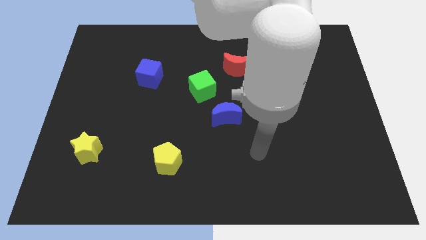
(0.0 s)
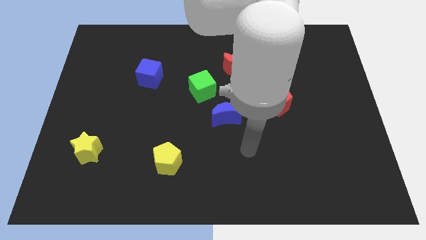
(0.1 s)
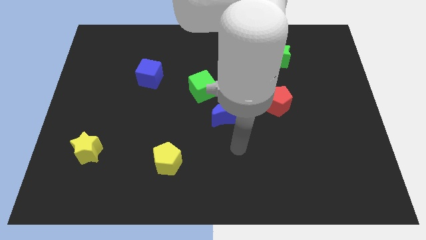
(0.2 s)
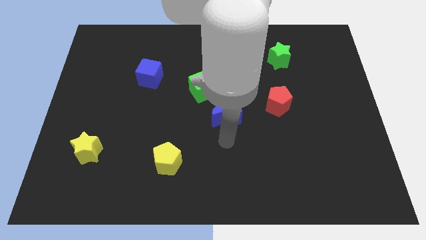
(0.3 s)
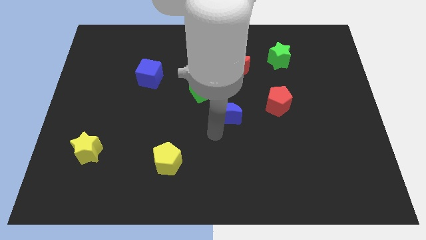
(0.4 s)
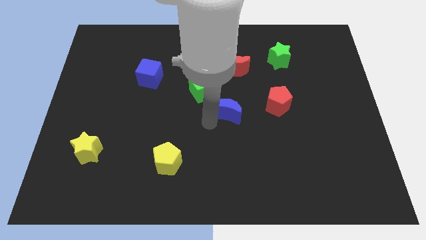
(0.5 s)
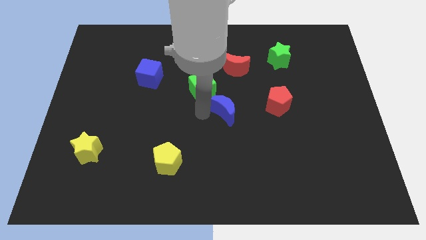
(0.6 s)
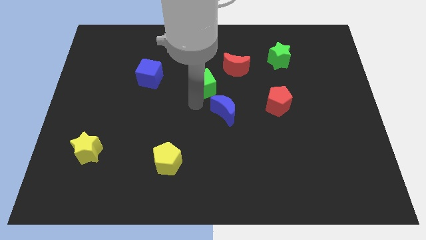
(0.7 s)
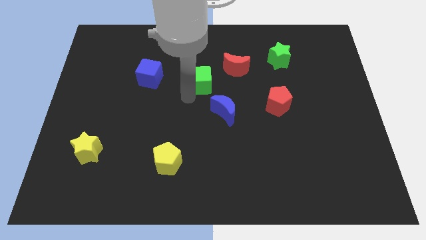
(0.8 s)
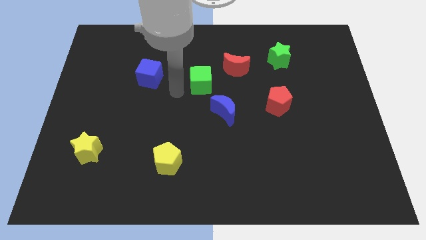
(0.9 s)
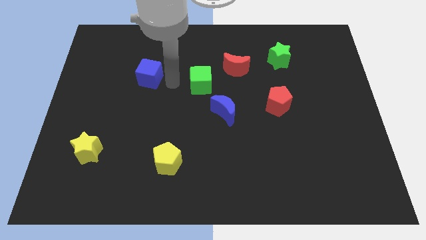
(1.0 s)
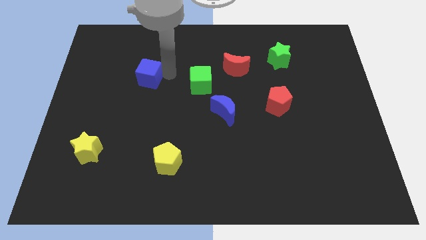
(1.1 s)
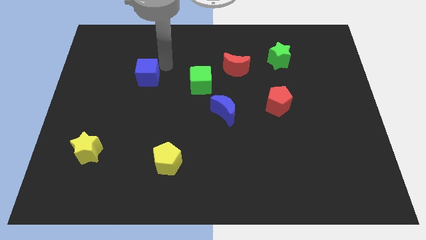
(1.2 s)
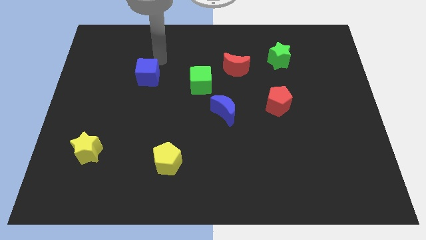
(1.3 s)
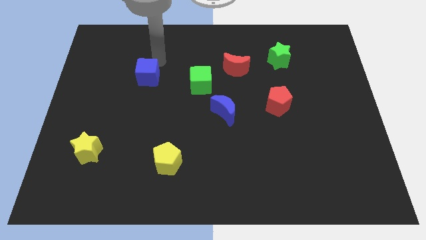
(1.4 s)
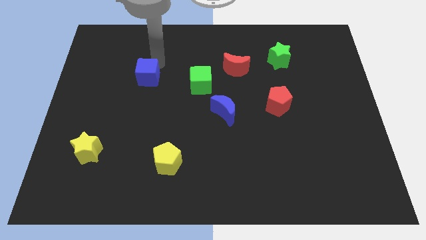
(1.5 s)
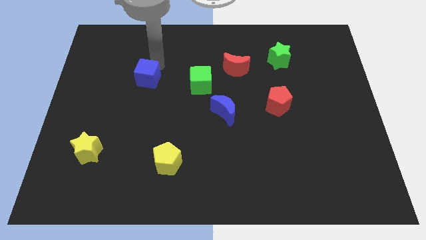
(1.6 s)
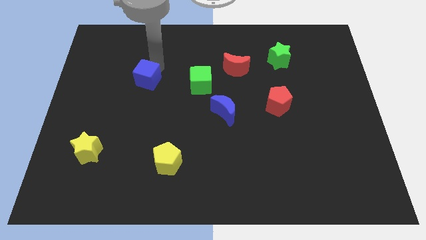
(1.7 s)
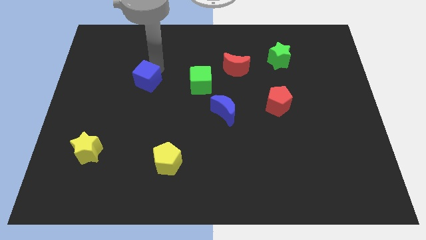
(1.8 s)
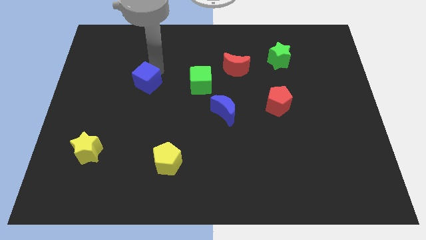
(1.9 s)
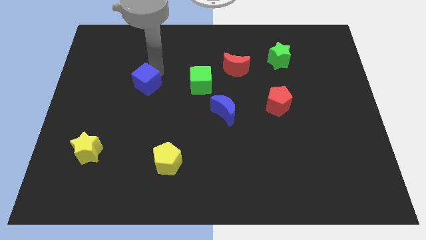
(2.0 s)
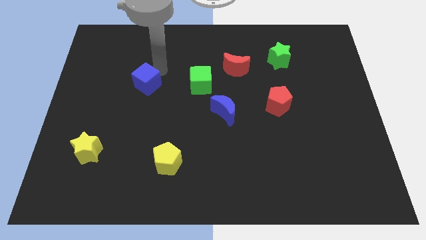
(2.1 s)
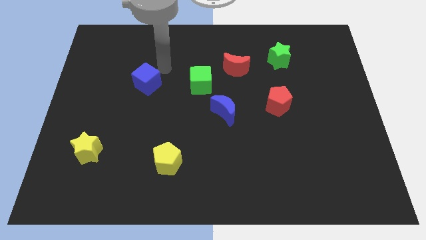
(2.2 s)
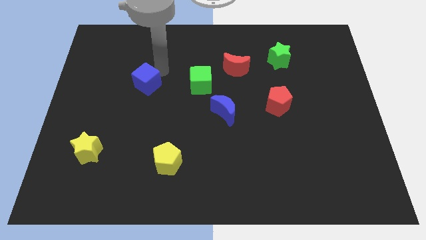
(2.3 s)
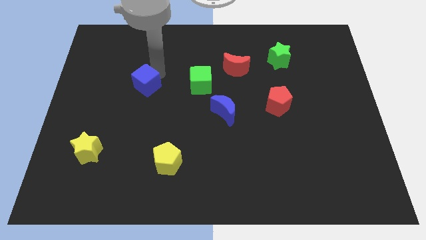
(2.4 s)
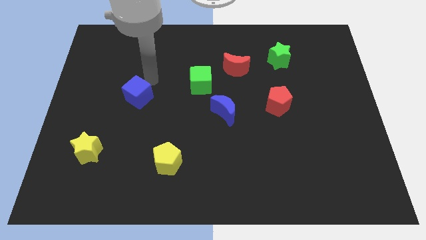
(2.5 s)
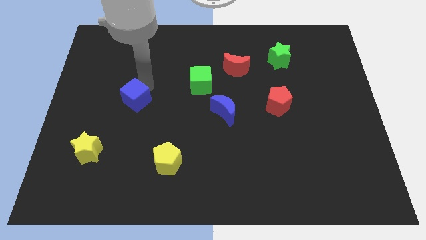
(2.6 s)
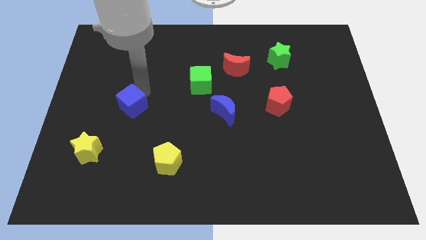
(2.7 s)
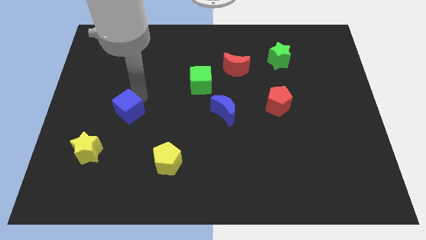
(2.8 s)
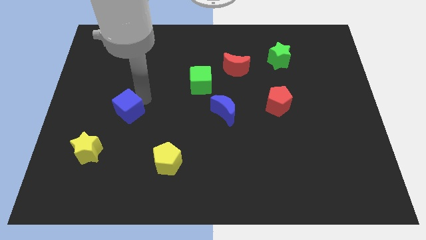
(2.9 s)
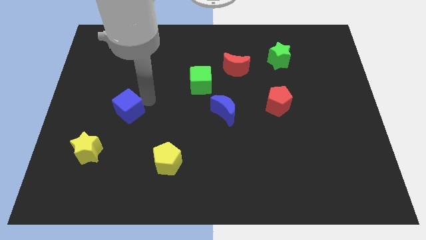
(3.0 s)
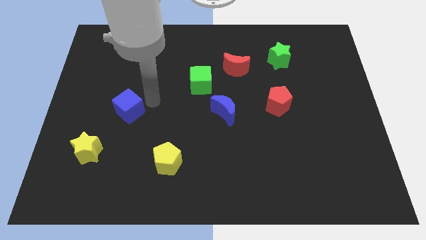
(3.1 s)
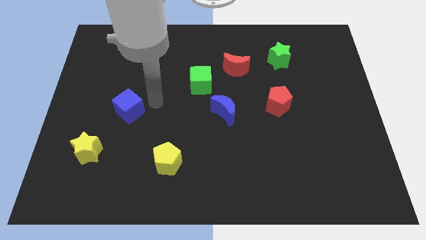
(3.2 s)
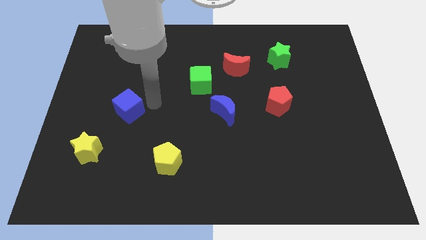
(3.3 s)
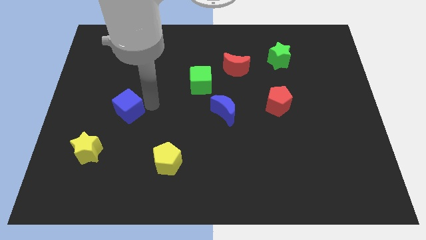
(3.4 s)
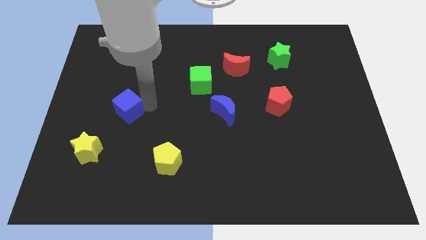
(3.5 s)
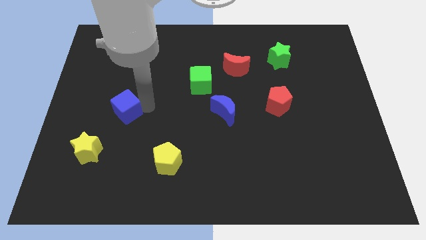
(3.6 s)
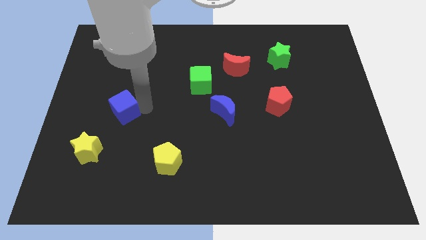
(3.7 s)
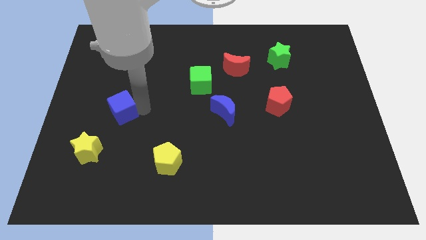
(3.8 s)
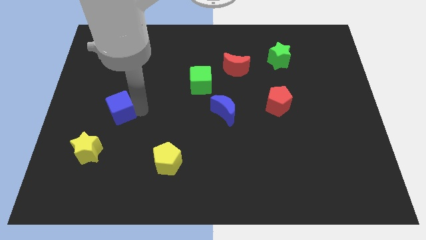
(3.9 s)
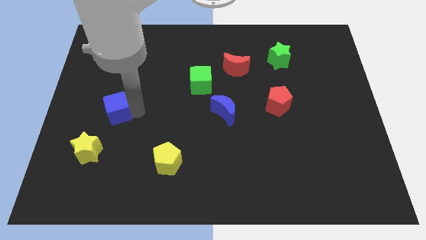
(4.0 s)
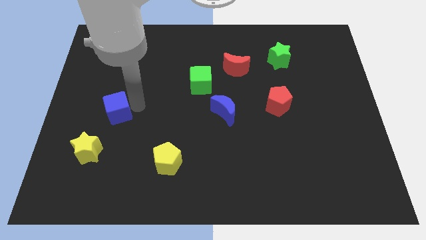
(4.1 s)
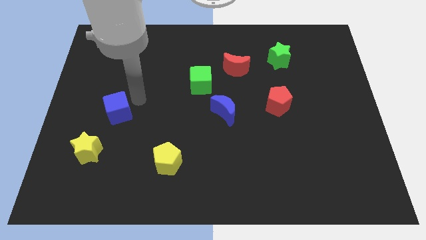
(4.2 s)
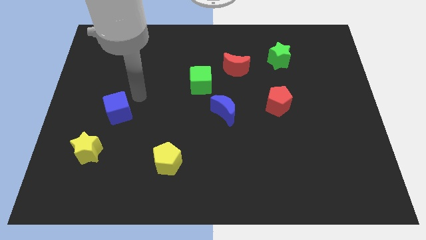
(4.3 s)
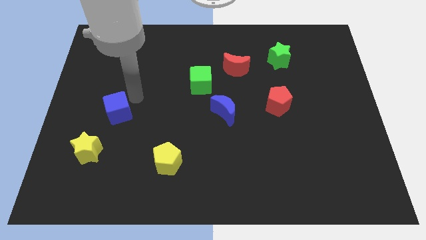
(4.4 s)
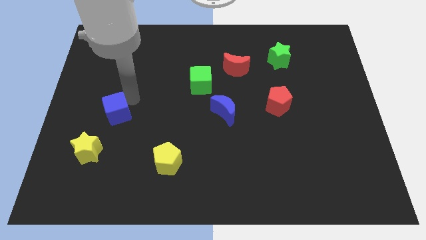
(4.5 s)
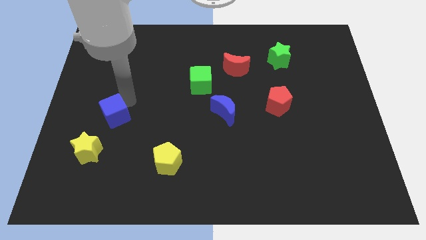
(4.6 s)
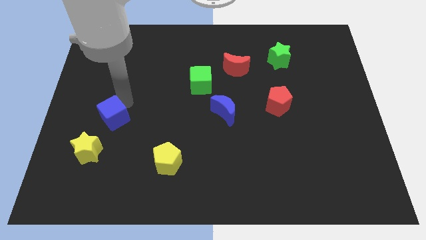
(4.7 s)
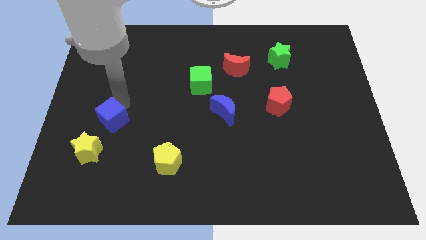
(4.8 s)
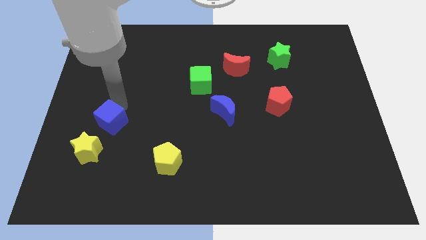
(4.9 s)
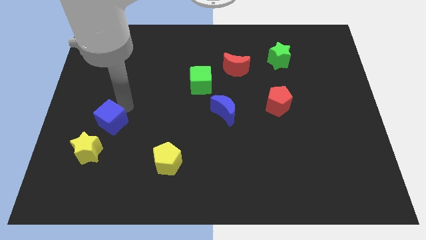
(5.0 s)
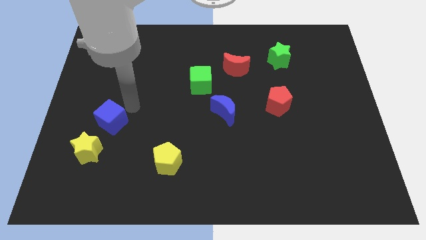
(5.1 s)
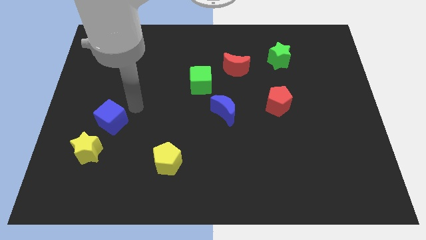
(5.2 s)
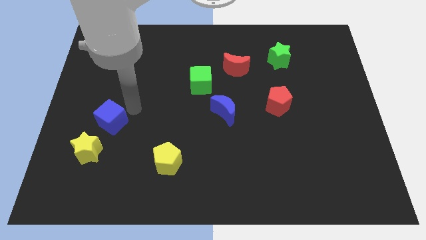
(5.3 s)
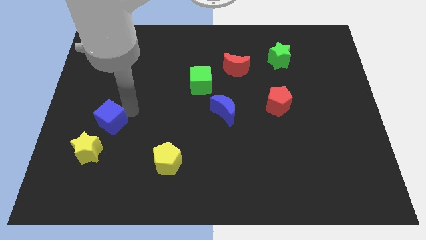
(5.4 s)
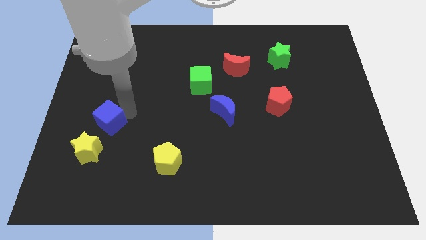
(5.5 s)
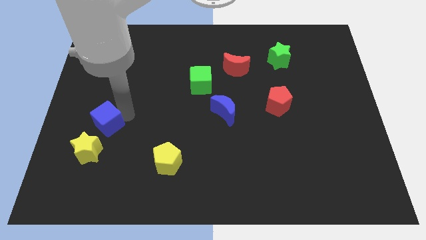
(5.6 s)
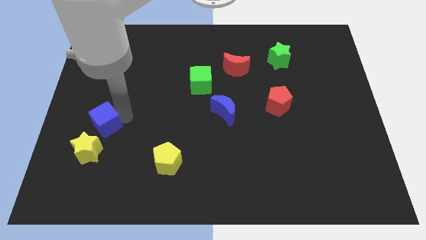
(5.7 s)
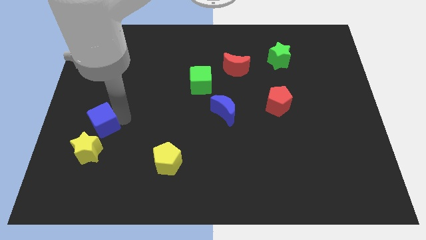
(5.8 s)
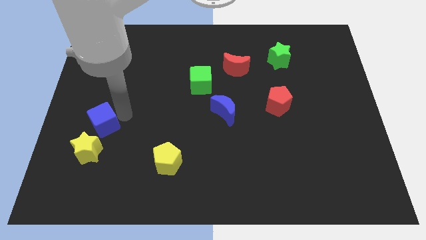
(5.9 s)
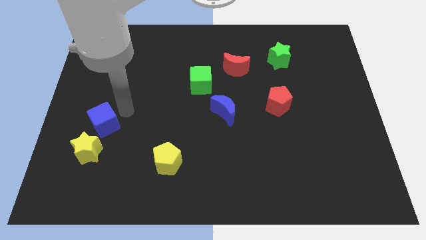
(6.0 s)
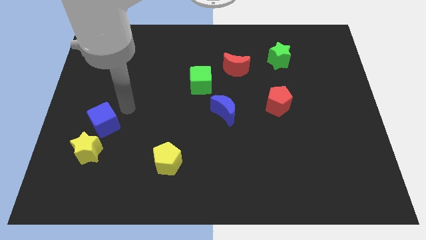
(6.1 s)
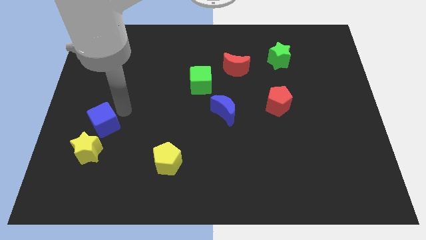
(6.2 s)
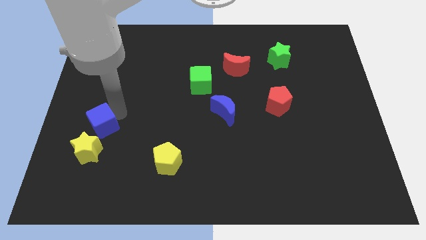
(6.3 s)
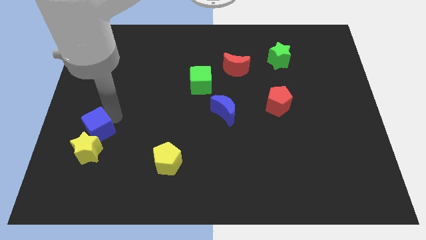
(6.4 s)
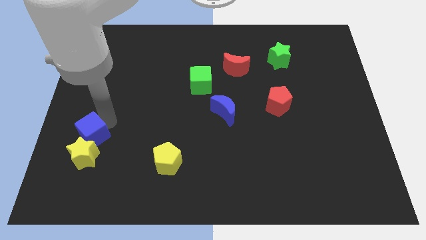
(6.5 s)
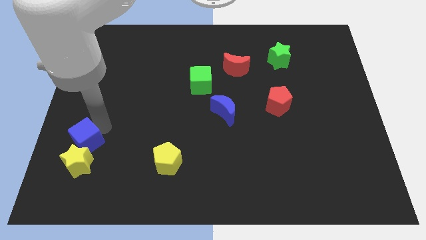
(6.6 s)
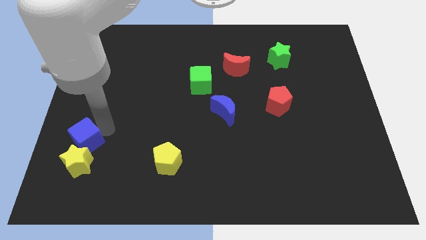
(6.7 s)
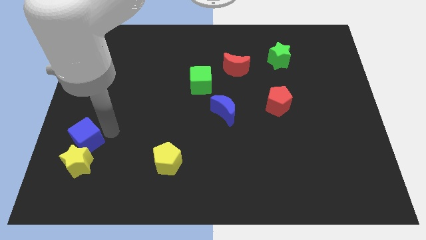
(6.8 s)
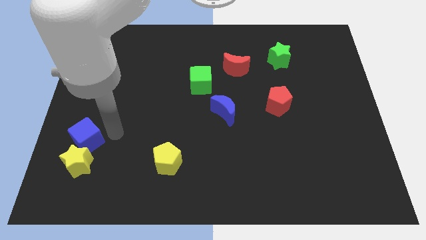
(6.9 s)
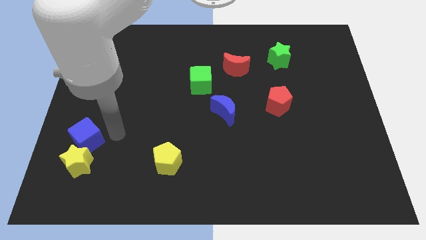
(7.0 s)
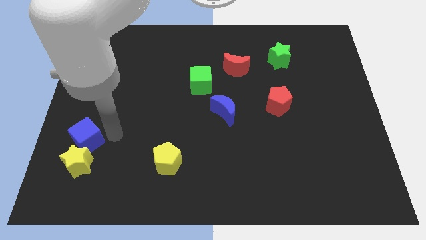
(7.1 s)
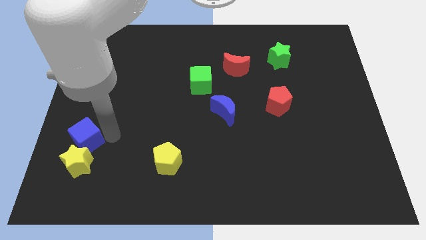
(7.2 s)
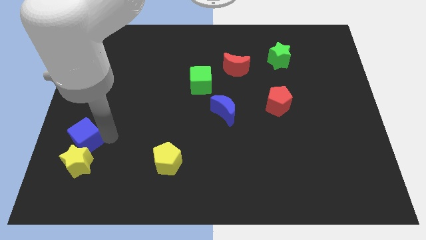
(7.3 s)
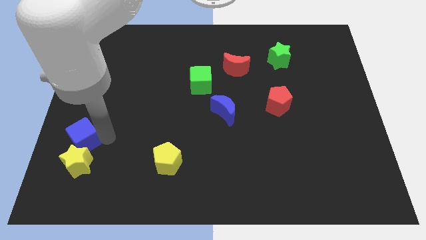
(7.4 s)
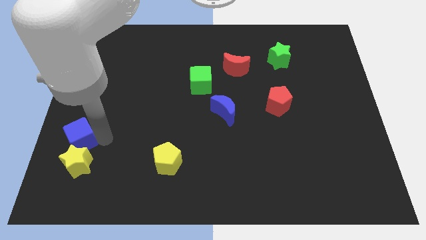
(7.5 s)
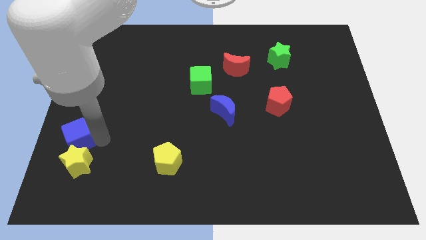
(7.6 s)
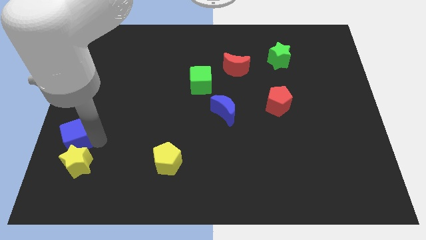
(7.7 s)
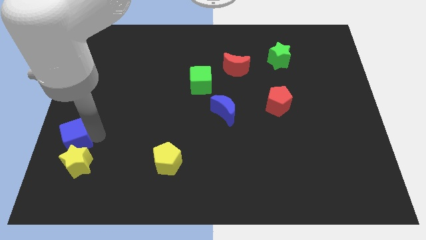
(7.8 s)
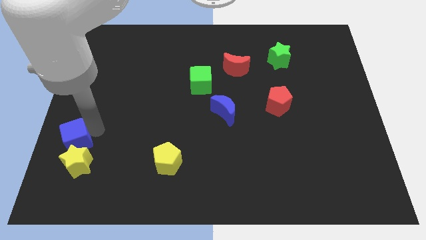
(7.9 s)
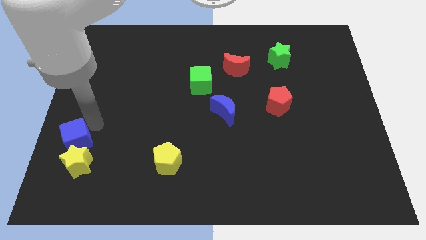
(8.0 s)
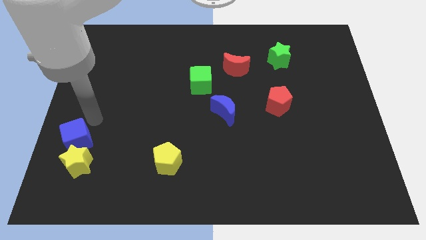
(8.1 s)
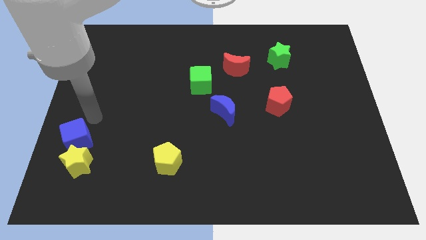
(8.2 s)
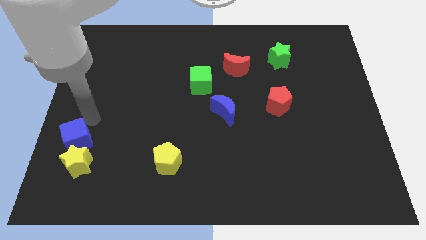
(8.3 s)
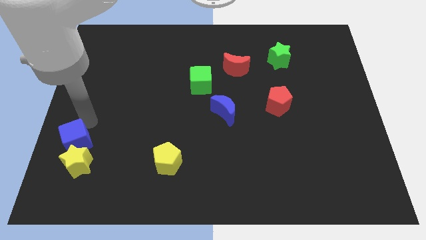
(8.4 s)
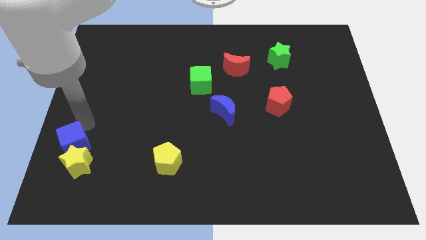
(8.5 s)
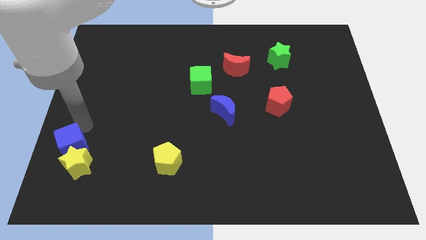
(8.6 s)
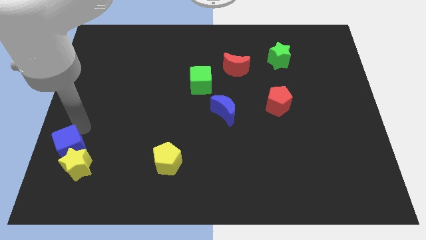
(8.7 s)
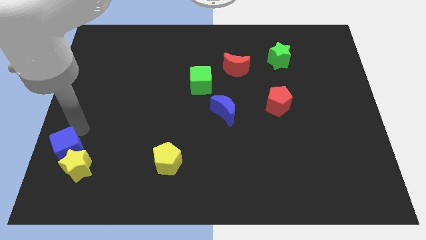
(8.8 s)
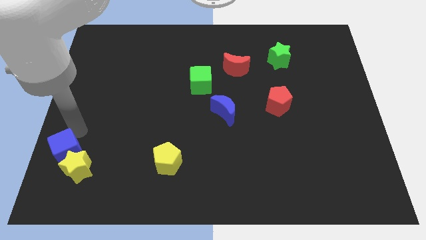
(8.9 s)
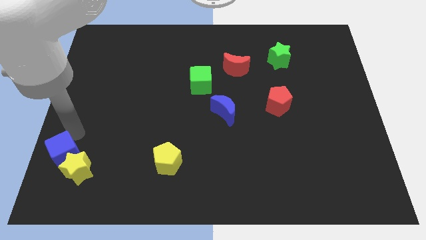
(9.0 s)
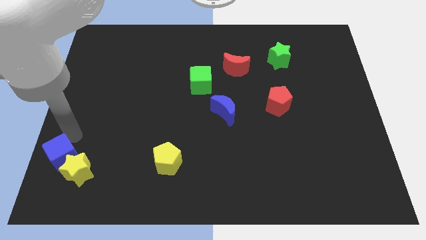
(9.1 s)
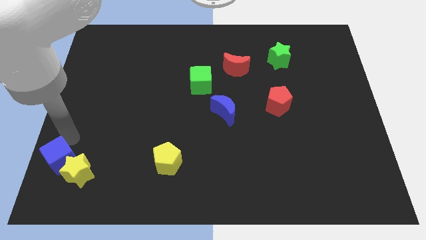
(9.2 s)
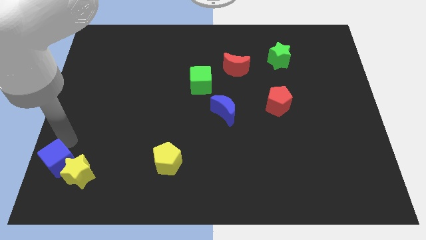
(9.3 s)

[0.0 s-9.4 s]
push the blue cube to the bottom left corner
